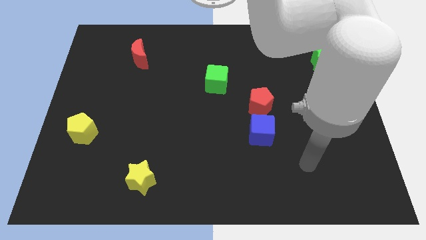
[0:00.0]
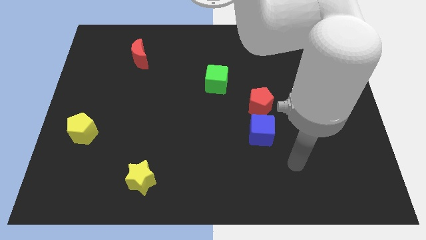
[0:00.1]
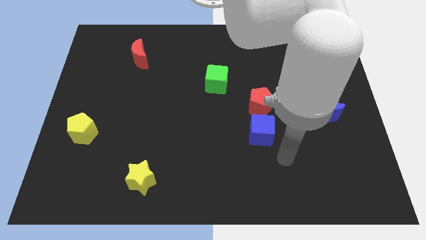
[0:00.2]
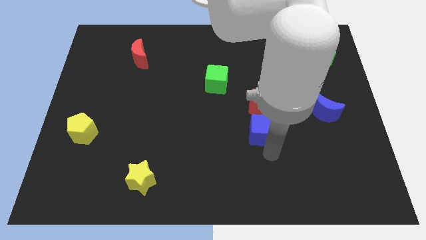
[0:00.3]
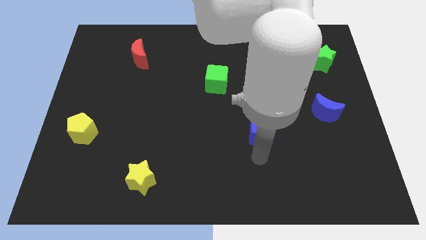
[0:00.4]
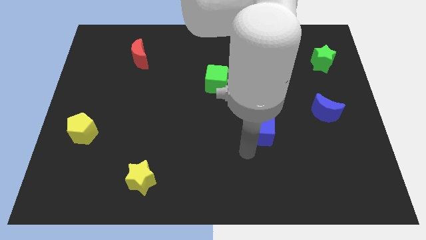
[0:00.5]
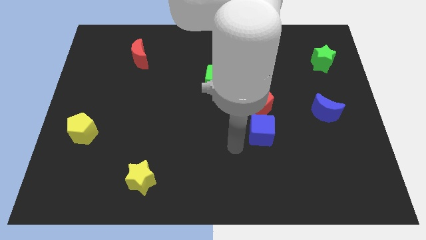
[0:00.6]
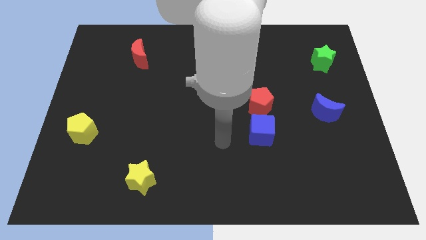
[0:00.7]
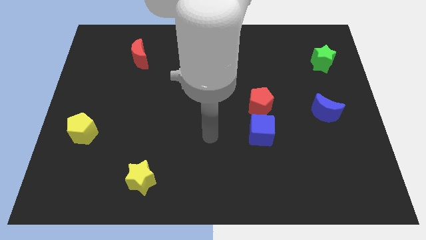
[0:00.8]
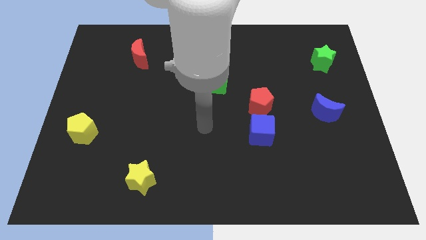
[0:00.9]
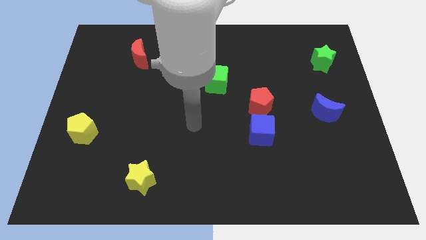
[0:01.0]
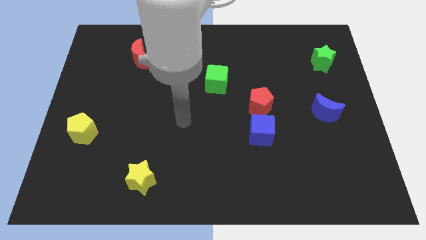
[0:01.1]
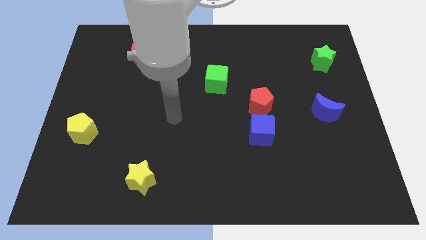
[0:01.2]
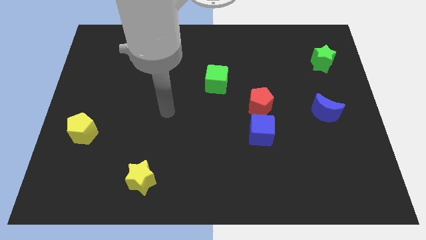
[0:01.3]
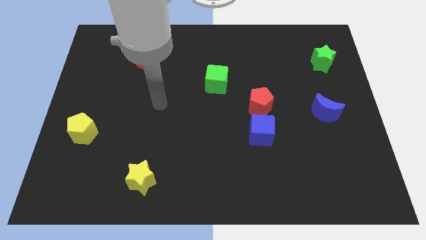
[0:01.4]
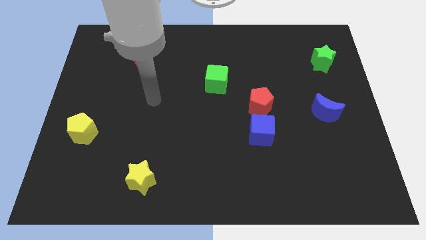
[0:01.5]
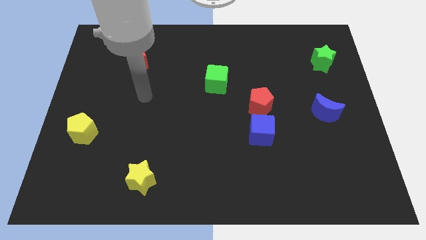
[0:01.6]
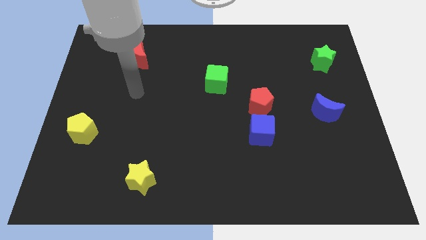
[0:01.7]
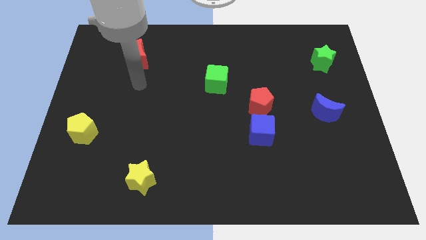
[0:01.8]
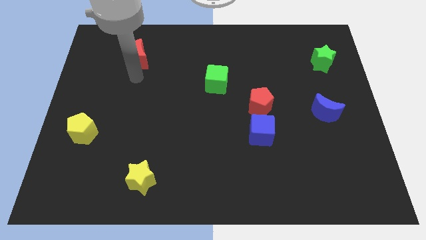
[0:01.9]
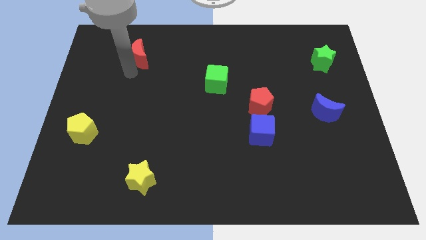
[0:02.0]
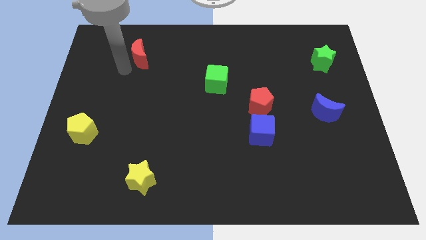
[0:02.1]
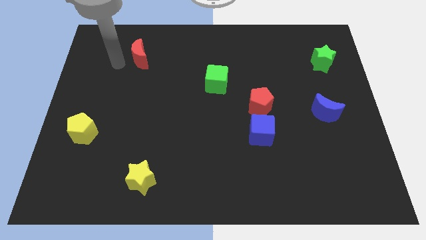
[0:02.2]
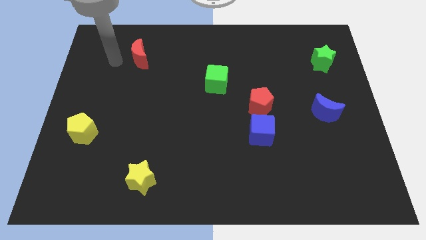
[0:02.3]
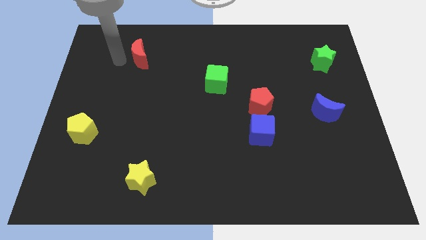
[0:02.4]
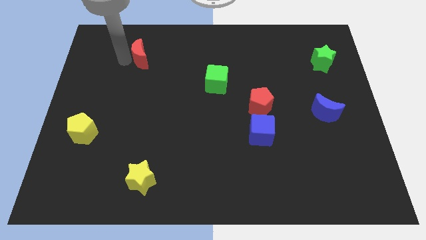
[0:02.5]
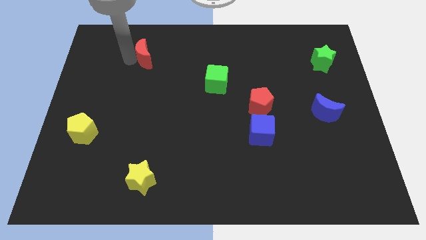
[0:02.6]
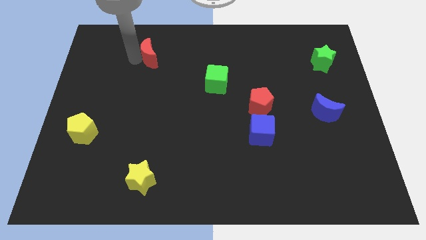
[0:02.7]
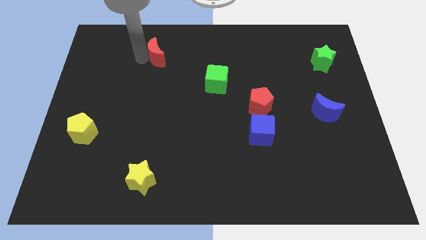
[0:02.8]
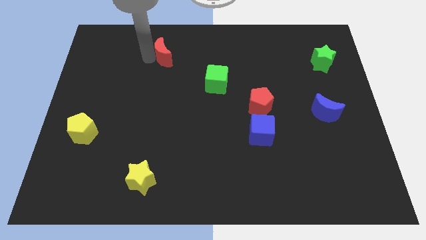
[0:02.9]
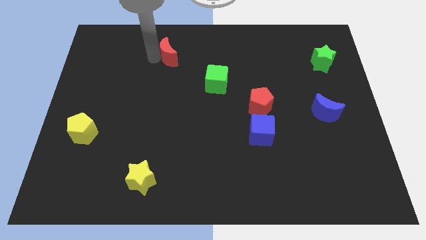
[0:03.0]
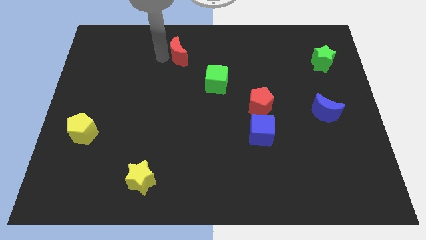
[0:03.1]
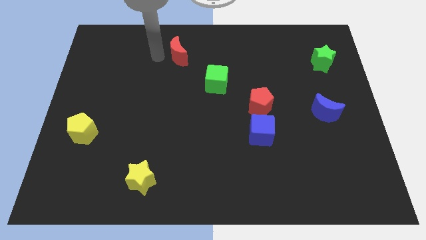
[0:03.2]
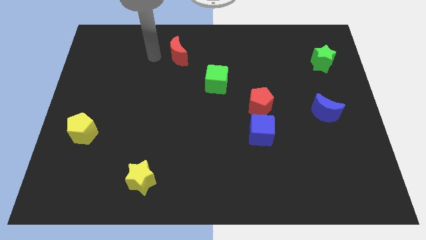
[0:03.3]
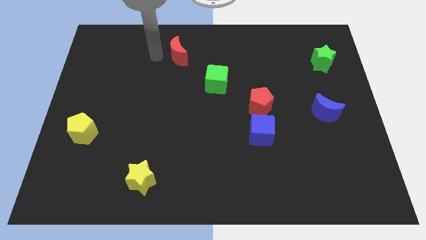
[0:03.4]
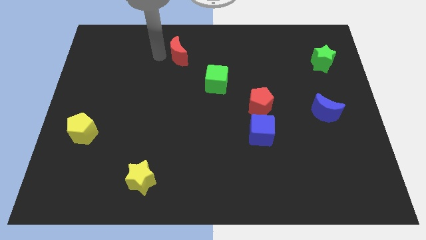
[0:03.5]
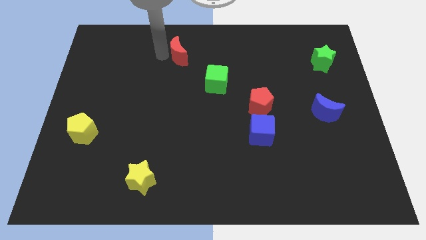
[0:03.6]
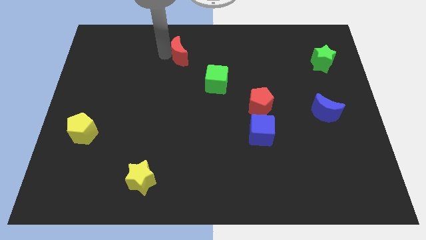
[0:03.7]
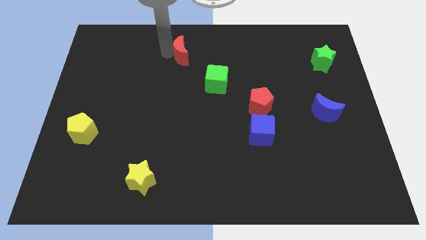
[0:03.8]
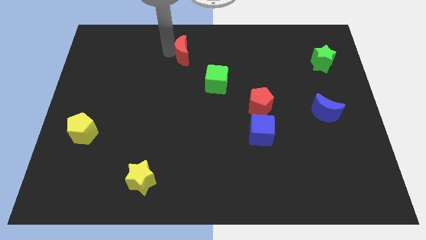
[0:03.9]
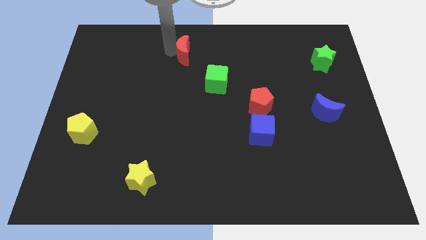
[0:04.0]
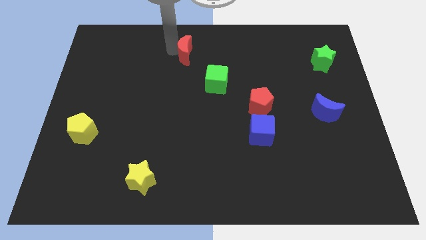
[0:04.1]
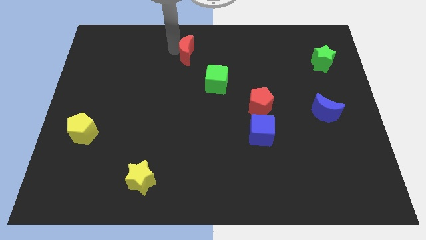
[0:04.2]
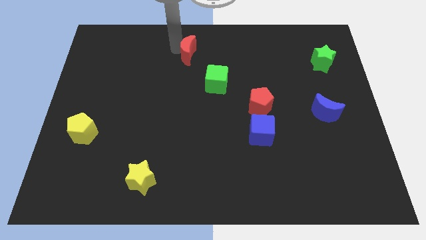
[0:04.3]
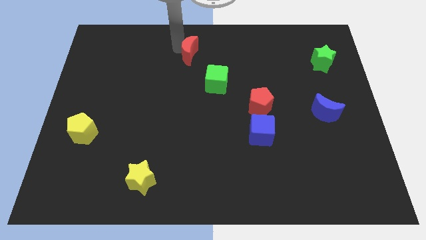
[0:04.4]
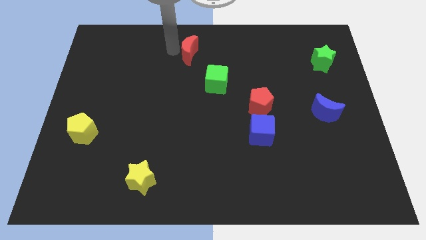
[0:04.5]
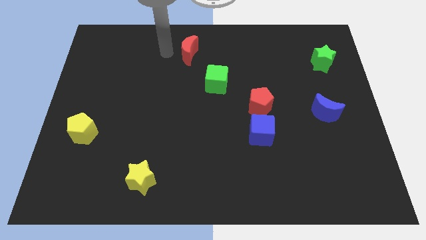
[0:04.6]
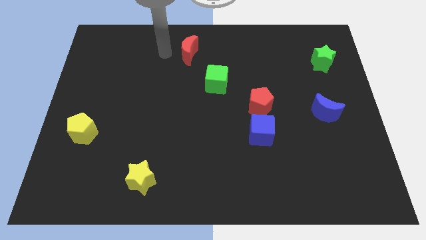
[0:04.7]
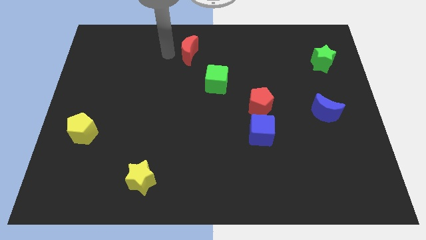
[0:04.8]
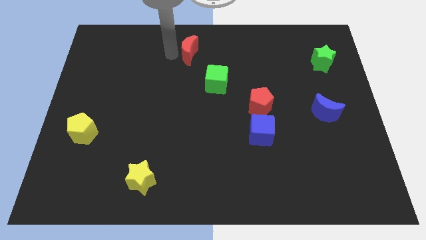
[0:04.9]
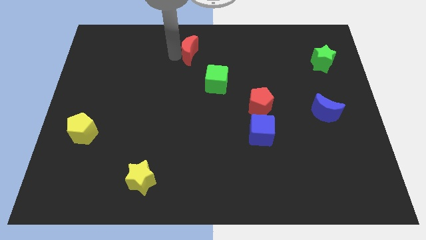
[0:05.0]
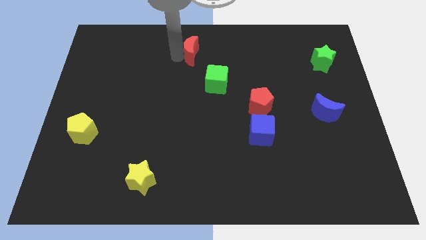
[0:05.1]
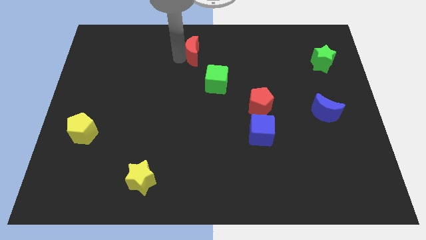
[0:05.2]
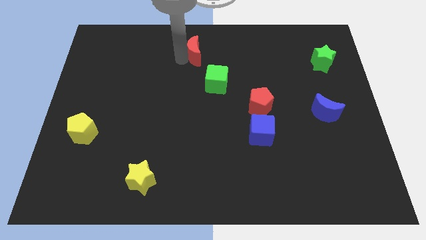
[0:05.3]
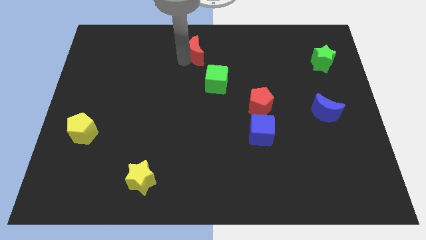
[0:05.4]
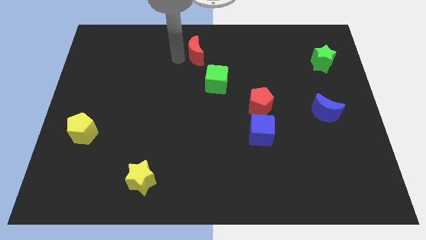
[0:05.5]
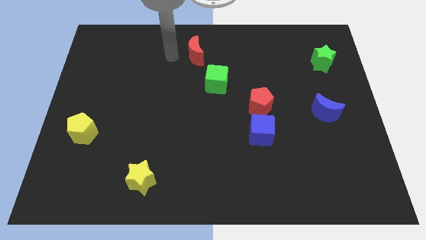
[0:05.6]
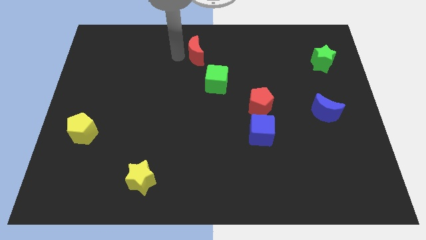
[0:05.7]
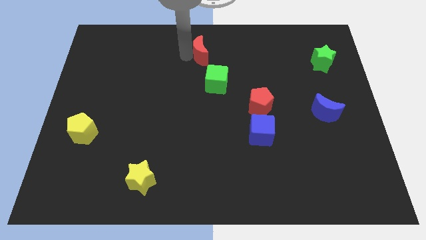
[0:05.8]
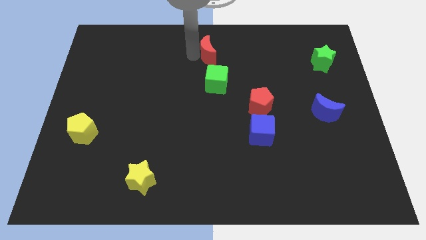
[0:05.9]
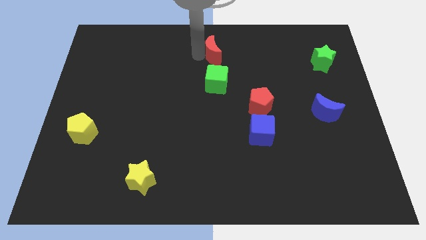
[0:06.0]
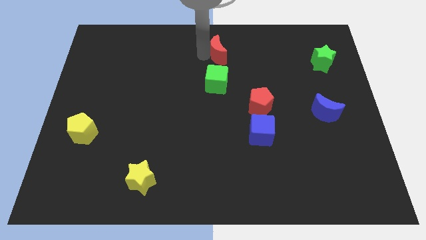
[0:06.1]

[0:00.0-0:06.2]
push the red moon to the right

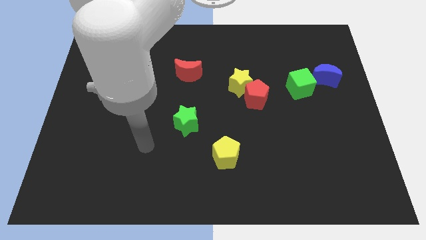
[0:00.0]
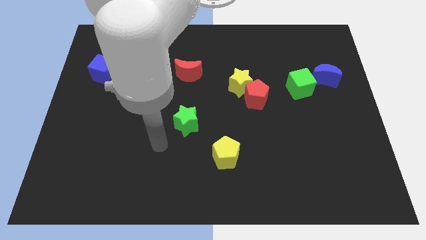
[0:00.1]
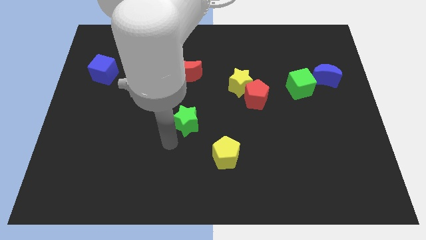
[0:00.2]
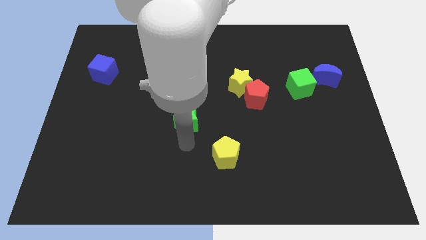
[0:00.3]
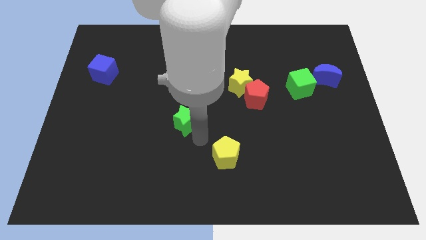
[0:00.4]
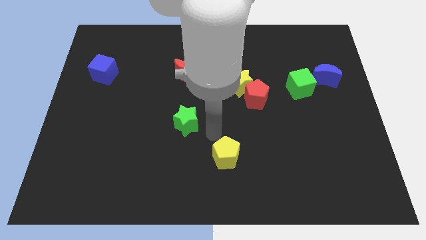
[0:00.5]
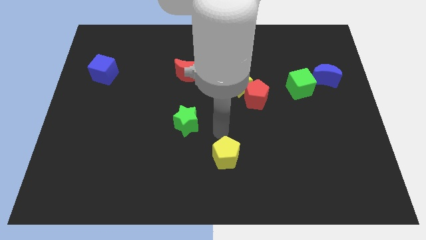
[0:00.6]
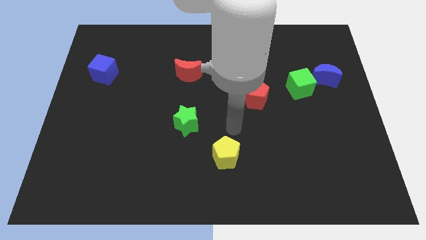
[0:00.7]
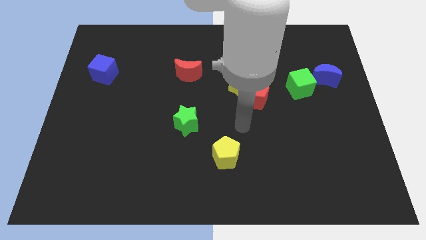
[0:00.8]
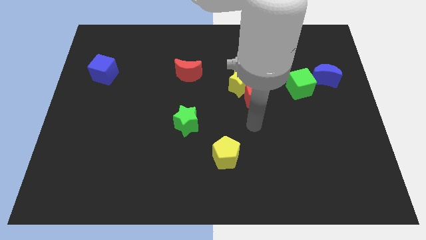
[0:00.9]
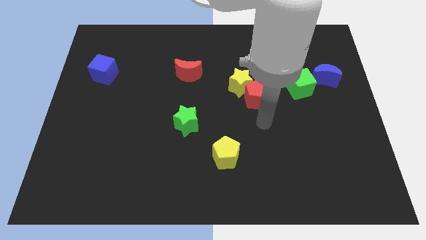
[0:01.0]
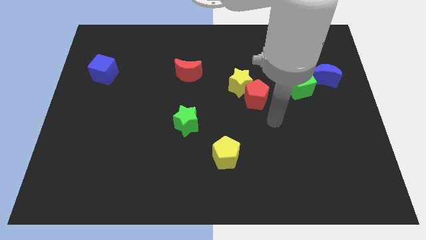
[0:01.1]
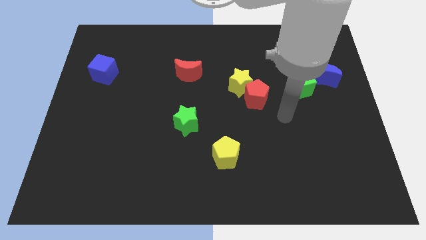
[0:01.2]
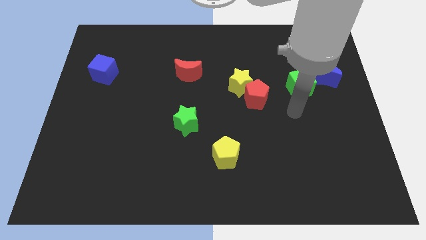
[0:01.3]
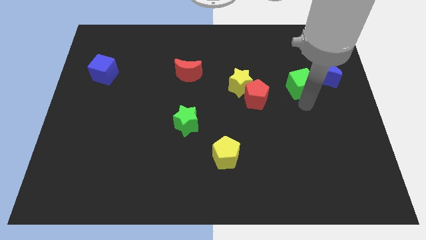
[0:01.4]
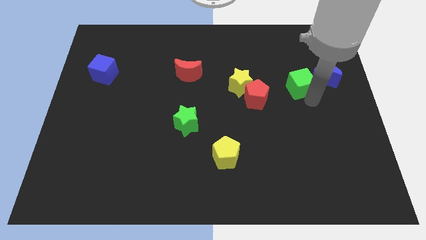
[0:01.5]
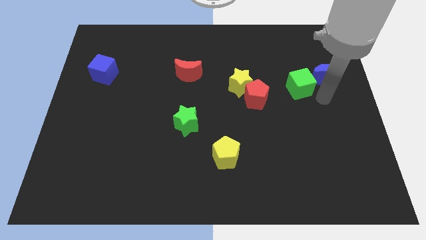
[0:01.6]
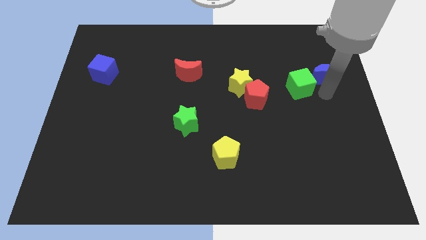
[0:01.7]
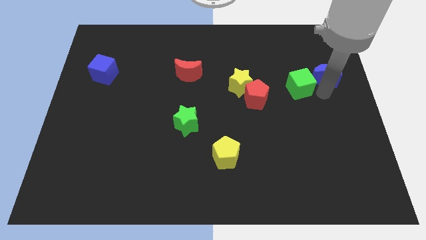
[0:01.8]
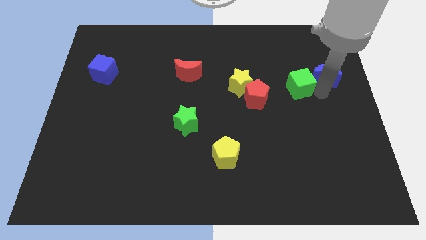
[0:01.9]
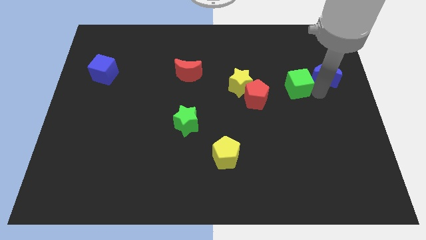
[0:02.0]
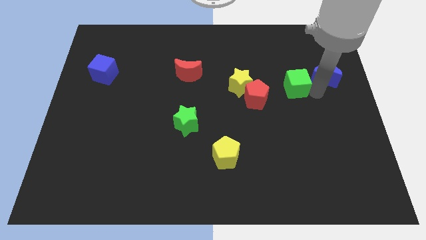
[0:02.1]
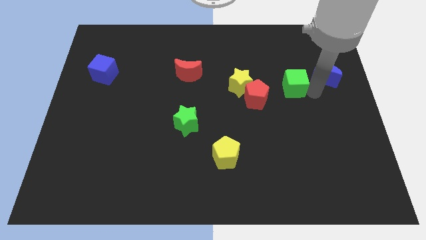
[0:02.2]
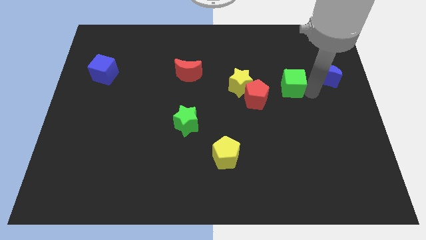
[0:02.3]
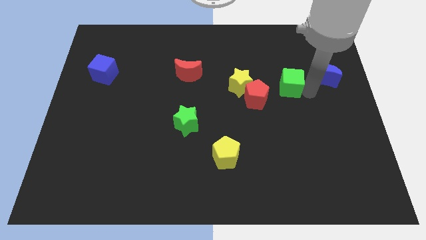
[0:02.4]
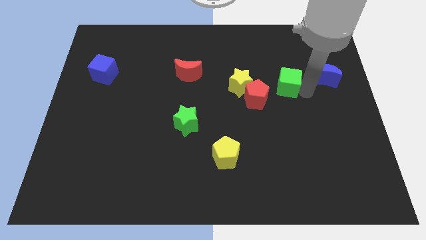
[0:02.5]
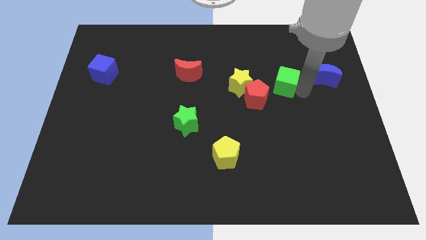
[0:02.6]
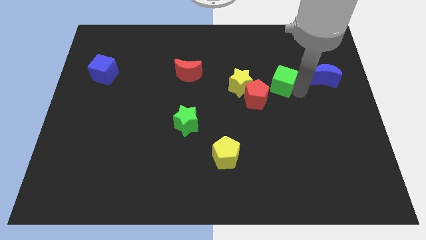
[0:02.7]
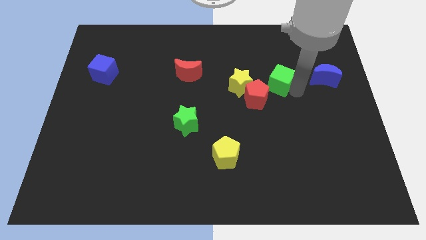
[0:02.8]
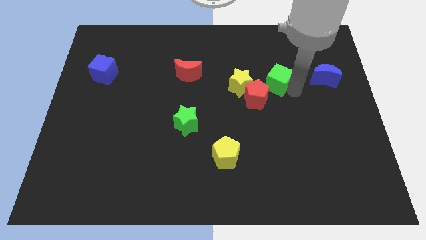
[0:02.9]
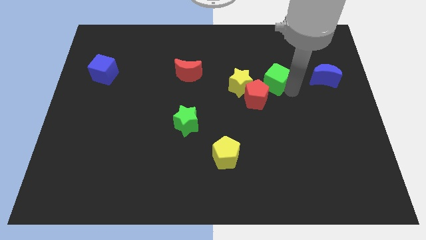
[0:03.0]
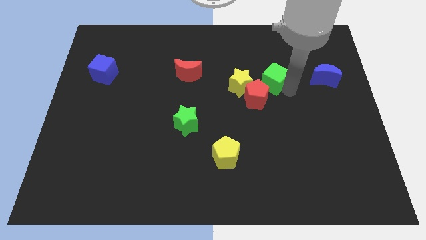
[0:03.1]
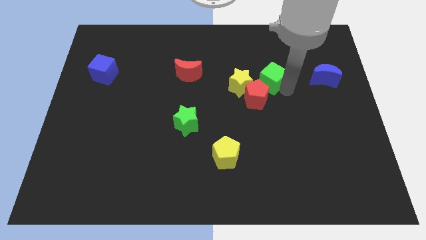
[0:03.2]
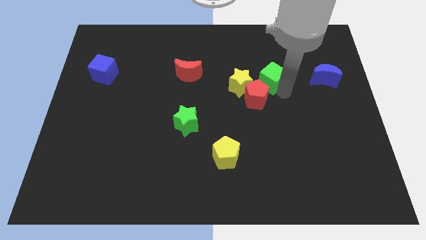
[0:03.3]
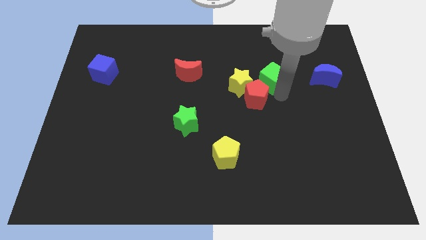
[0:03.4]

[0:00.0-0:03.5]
push the green cube left slightly
